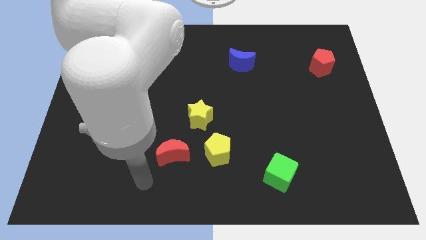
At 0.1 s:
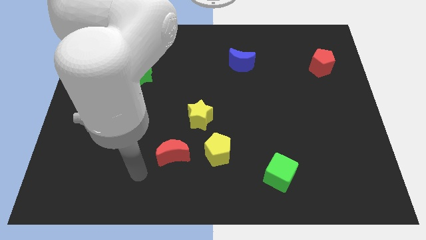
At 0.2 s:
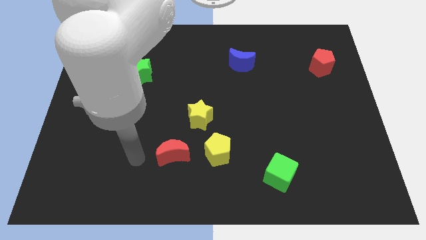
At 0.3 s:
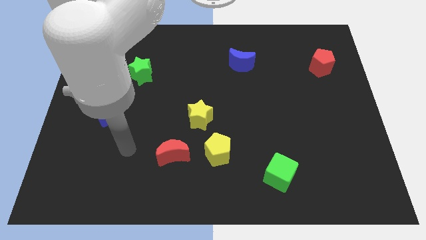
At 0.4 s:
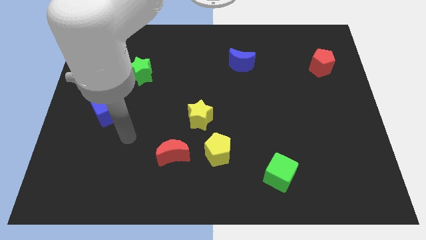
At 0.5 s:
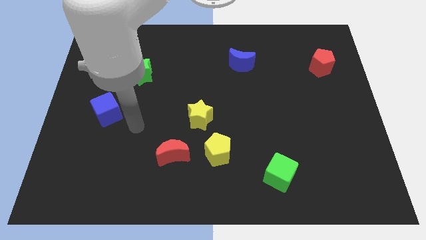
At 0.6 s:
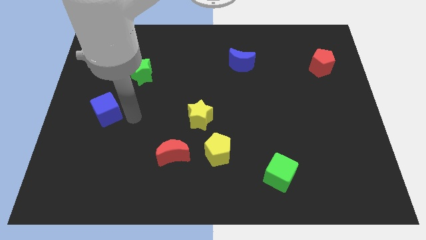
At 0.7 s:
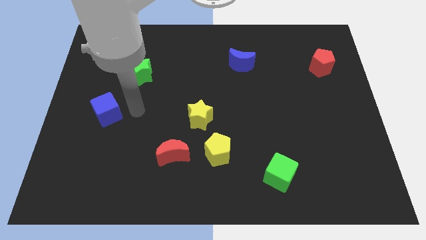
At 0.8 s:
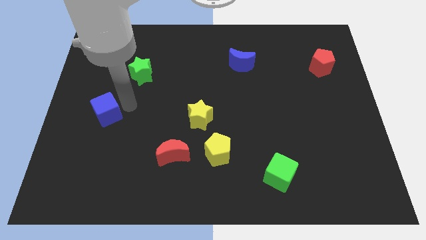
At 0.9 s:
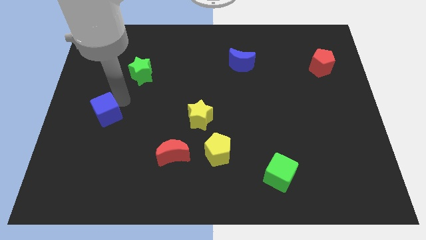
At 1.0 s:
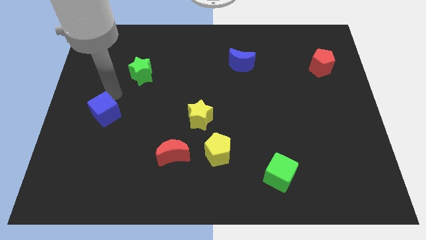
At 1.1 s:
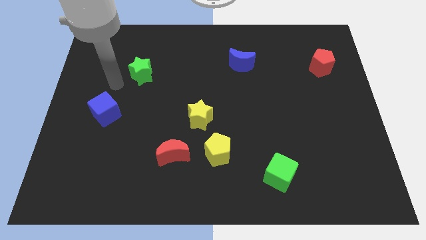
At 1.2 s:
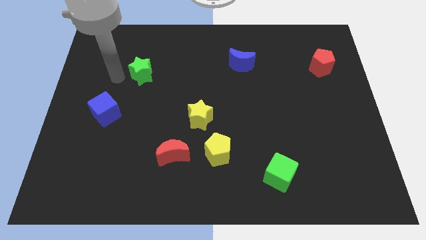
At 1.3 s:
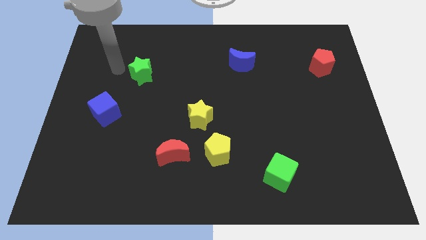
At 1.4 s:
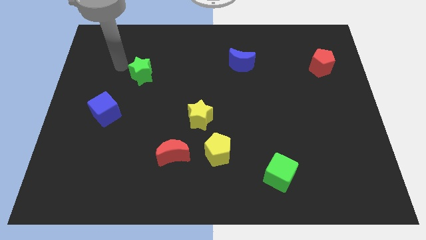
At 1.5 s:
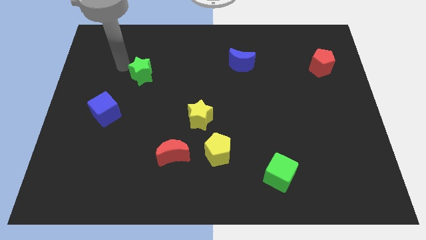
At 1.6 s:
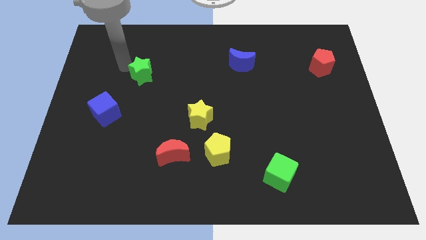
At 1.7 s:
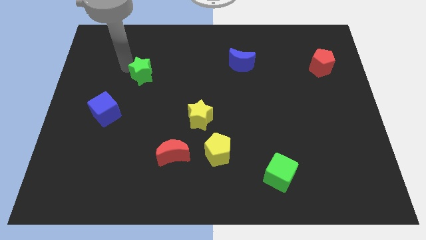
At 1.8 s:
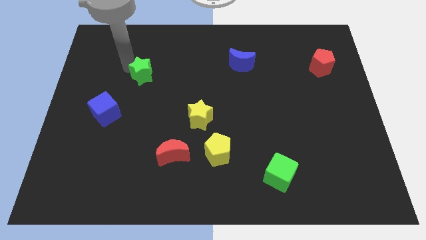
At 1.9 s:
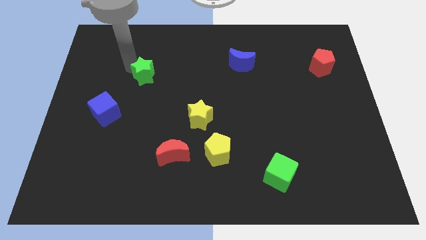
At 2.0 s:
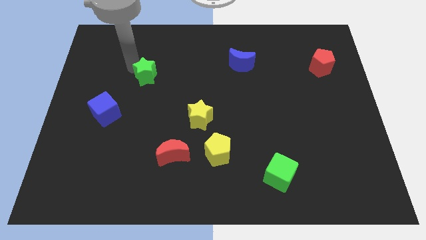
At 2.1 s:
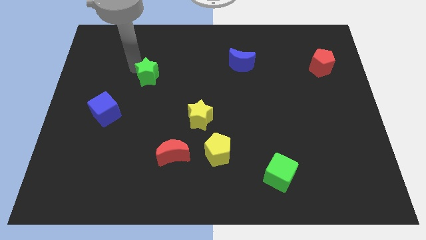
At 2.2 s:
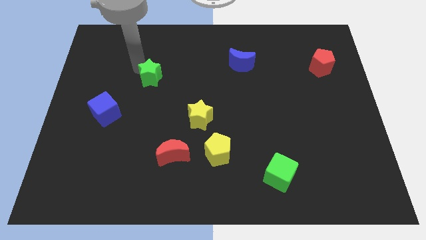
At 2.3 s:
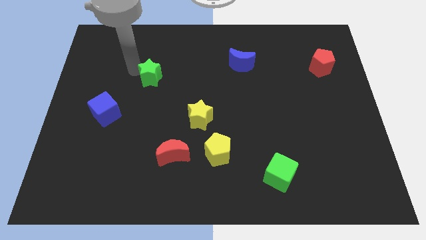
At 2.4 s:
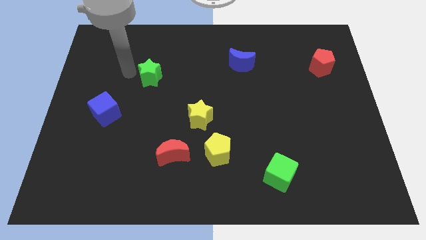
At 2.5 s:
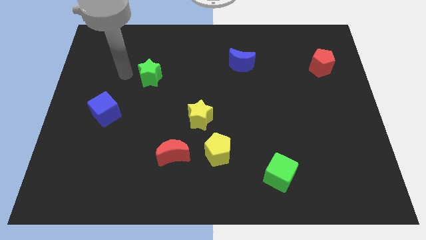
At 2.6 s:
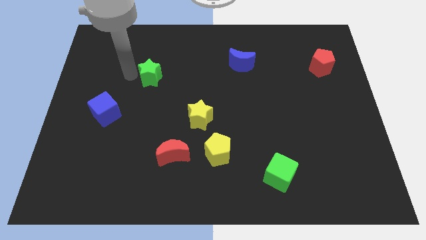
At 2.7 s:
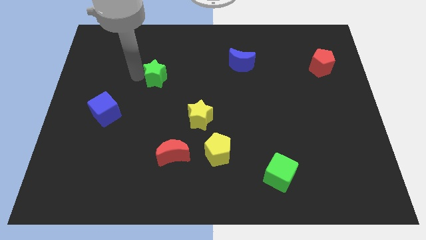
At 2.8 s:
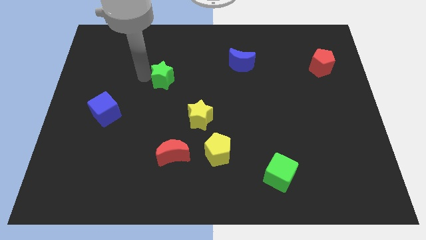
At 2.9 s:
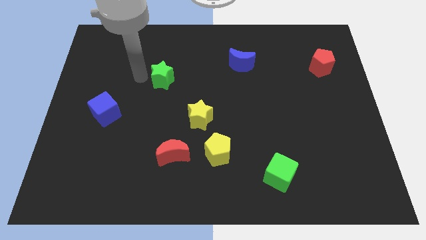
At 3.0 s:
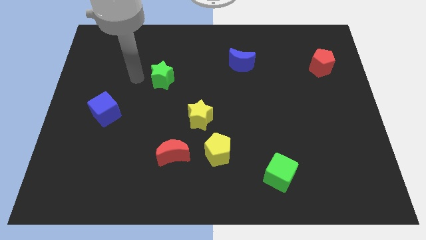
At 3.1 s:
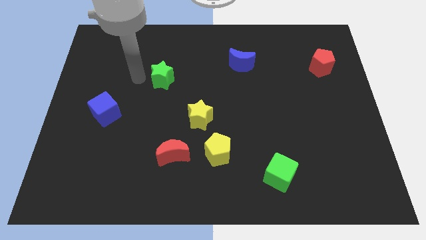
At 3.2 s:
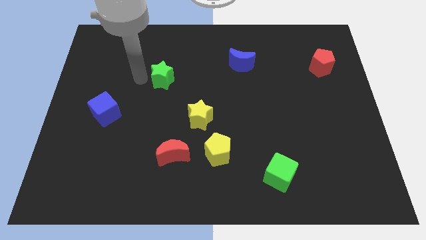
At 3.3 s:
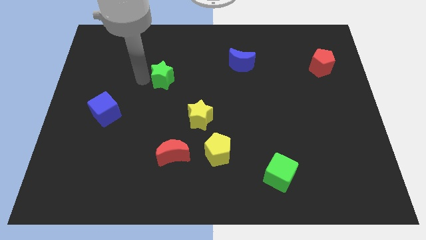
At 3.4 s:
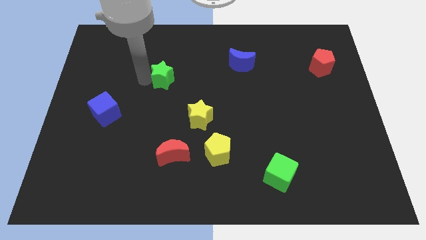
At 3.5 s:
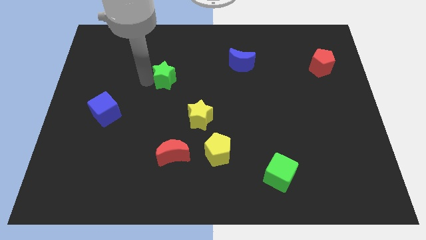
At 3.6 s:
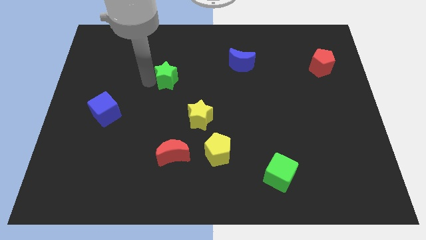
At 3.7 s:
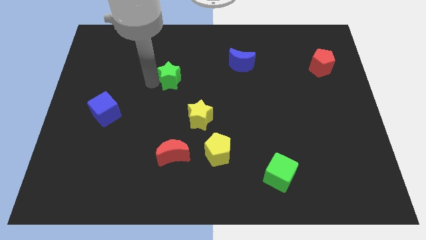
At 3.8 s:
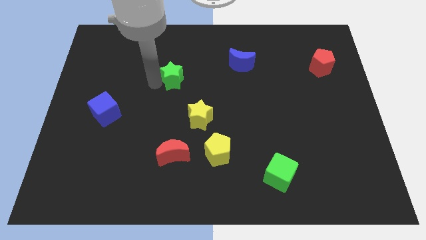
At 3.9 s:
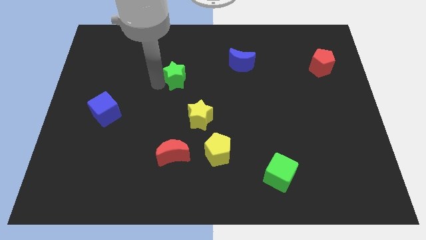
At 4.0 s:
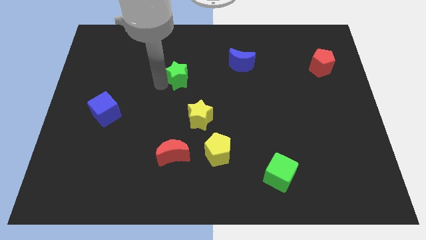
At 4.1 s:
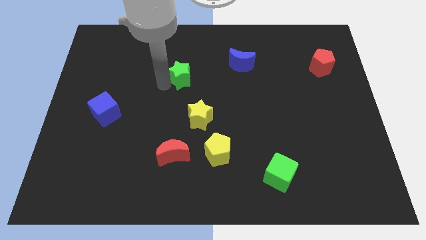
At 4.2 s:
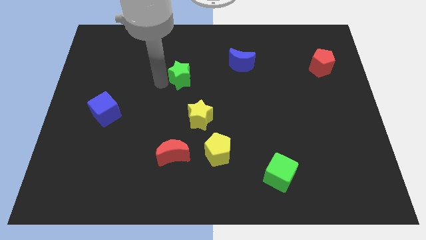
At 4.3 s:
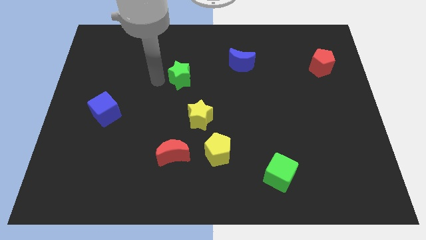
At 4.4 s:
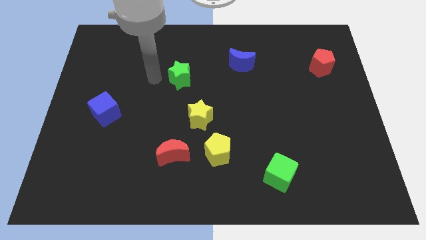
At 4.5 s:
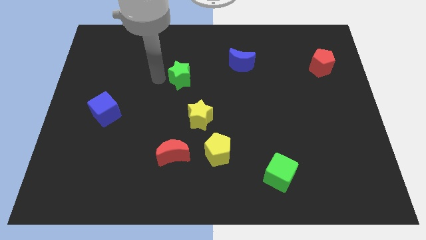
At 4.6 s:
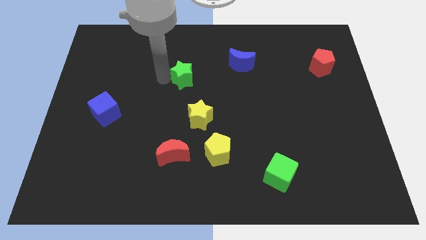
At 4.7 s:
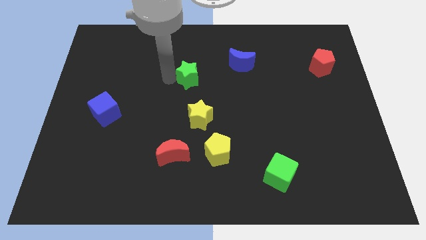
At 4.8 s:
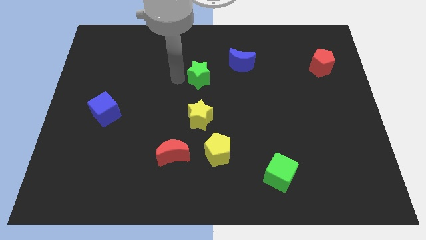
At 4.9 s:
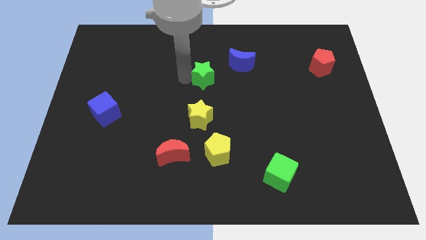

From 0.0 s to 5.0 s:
move the green star to the bottom left of the blue moon

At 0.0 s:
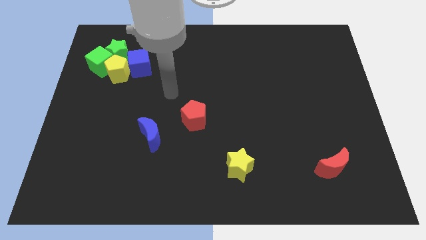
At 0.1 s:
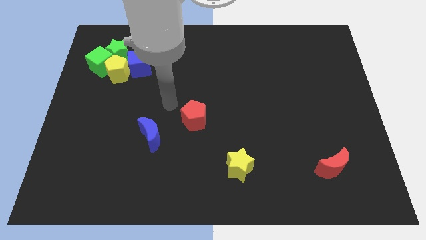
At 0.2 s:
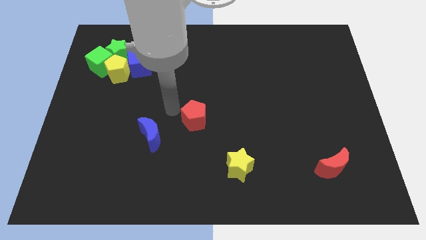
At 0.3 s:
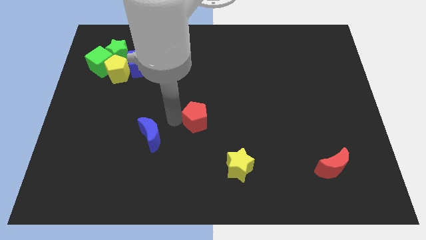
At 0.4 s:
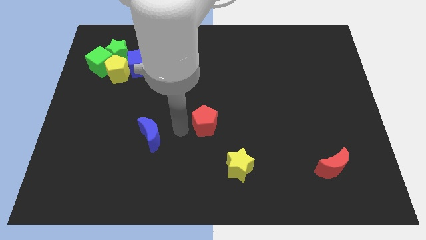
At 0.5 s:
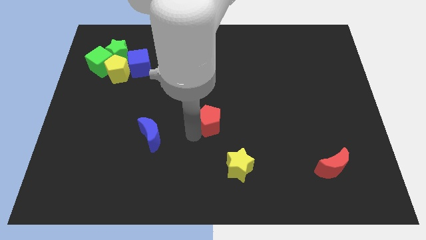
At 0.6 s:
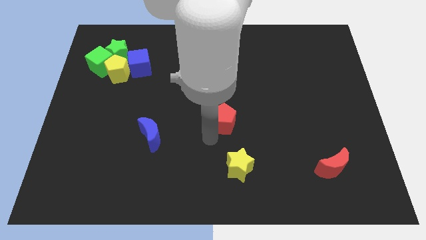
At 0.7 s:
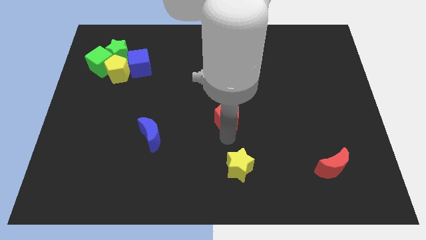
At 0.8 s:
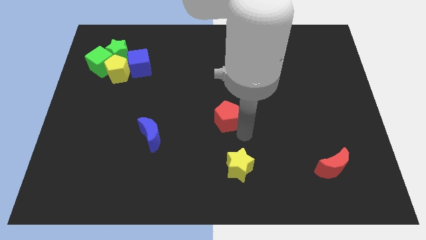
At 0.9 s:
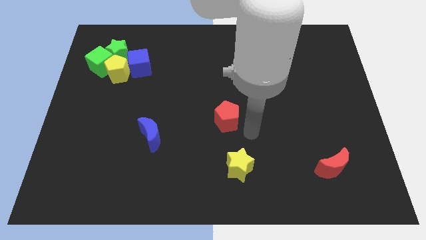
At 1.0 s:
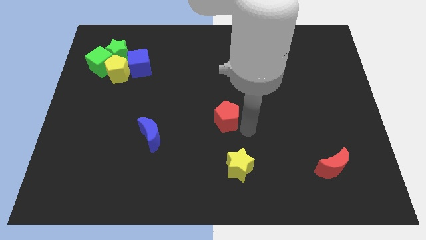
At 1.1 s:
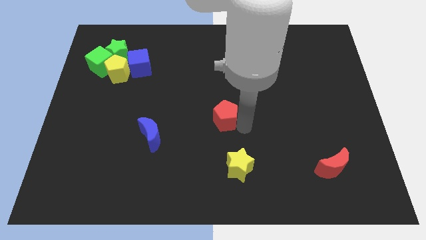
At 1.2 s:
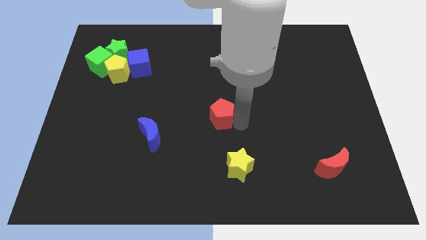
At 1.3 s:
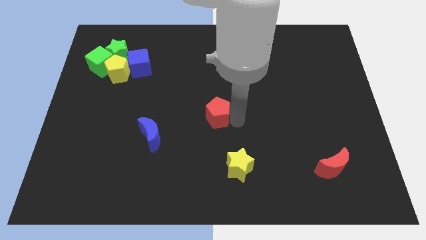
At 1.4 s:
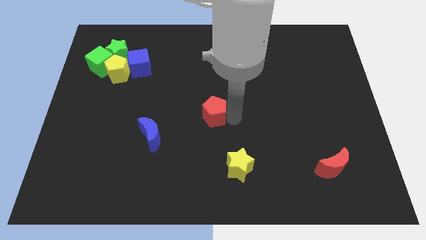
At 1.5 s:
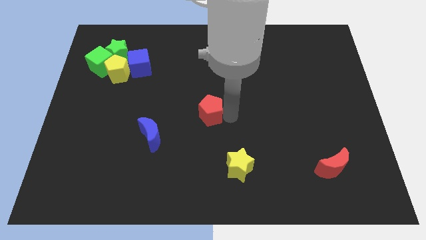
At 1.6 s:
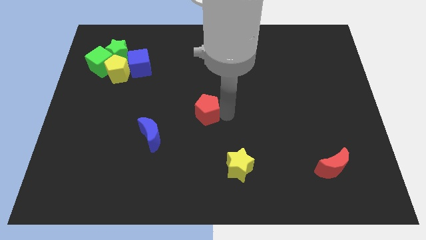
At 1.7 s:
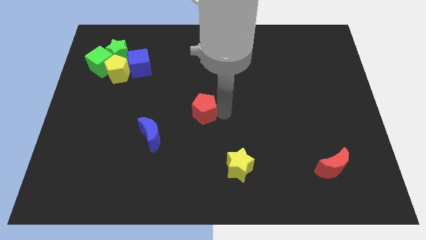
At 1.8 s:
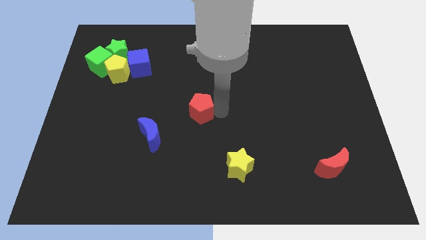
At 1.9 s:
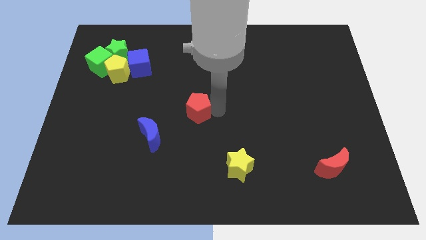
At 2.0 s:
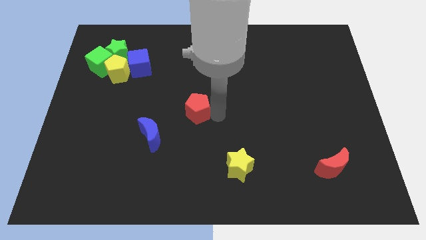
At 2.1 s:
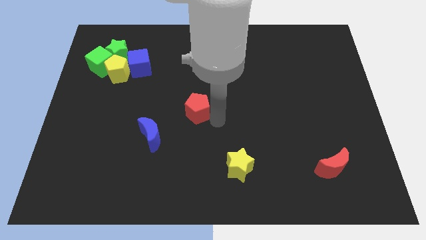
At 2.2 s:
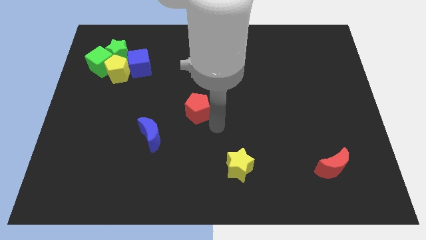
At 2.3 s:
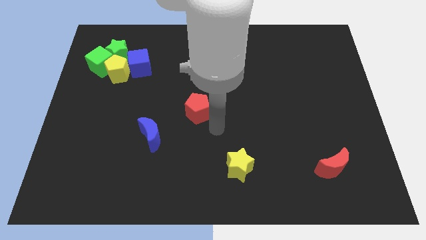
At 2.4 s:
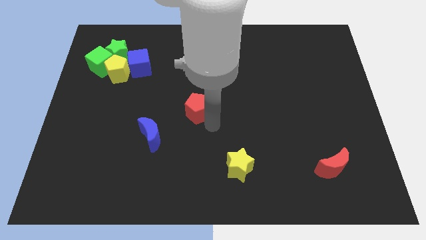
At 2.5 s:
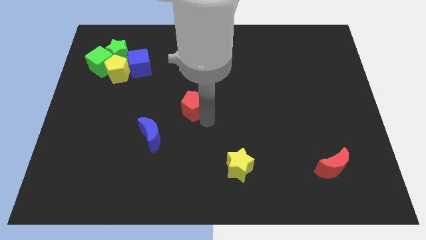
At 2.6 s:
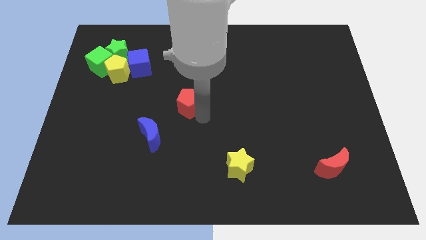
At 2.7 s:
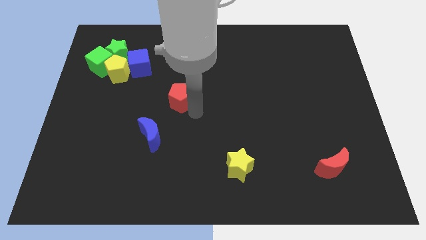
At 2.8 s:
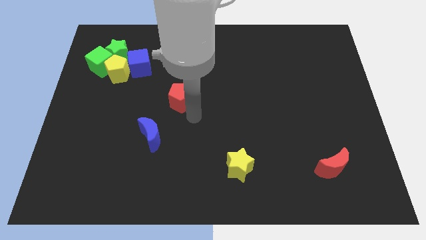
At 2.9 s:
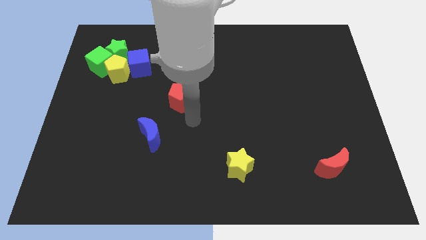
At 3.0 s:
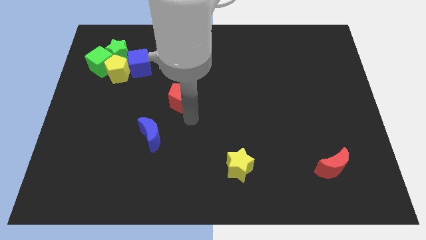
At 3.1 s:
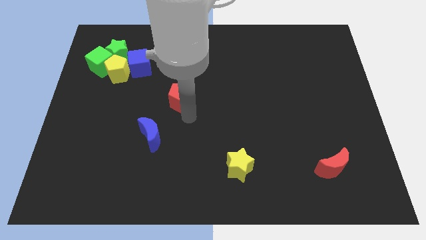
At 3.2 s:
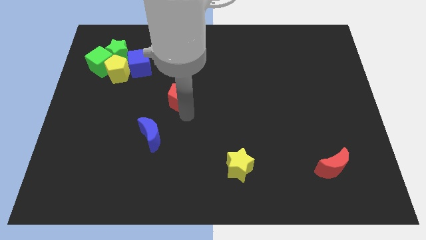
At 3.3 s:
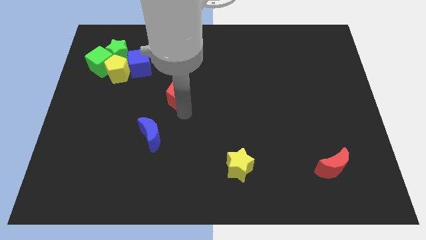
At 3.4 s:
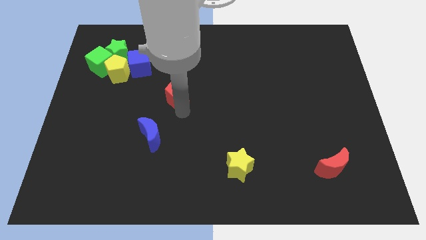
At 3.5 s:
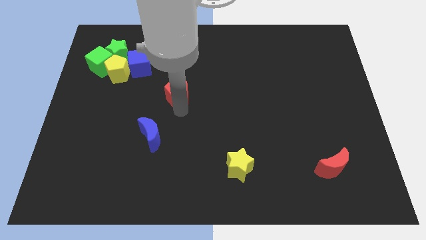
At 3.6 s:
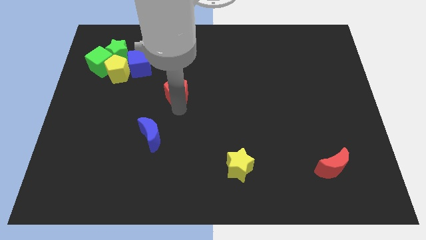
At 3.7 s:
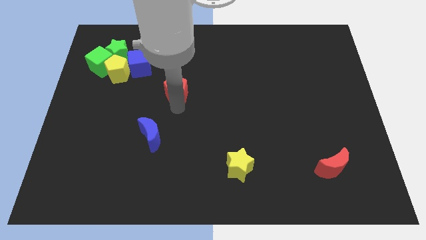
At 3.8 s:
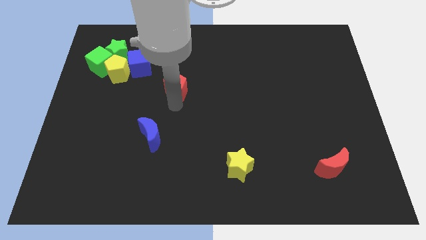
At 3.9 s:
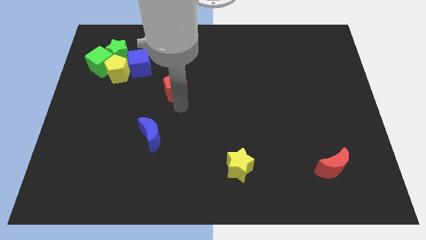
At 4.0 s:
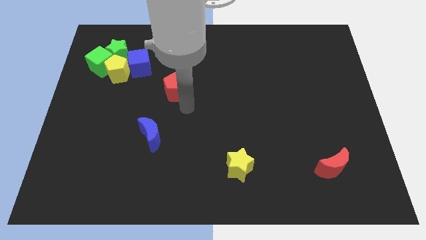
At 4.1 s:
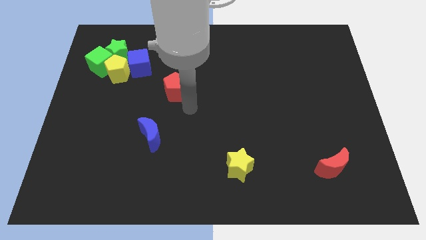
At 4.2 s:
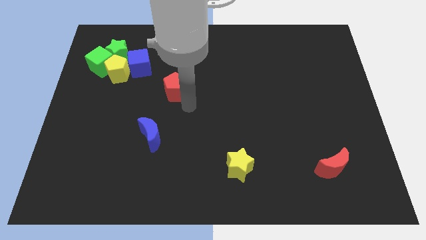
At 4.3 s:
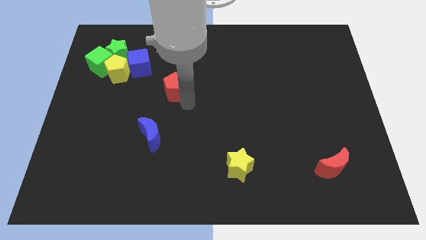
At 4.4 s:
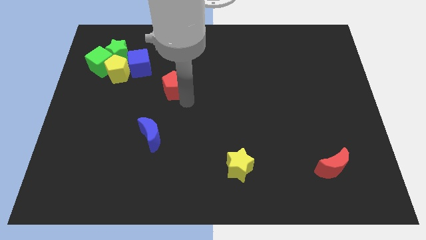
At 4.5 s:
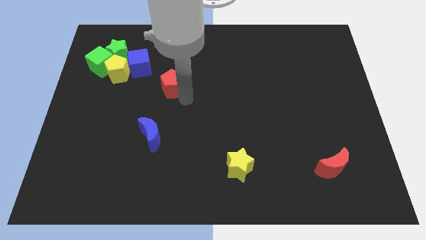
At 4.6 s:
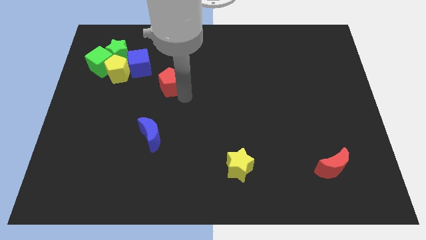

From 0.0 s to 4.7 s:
push the red pentagon just right of the yellow pentagon
